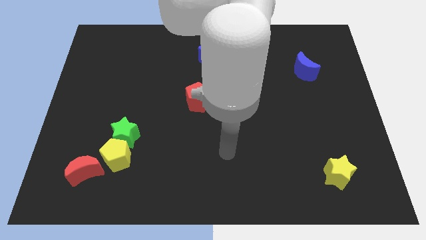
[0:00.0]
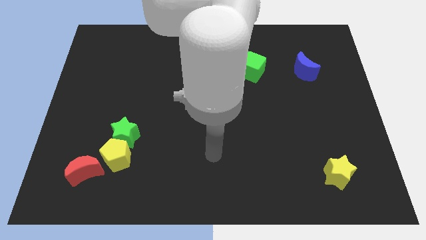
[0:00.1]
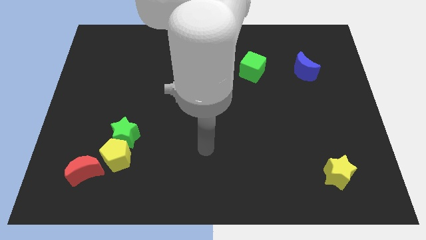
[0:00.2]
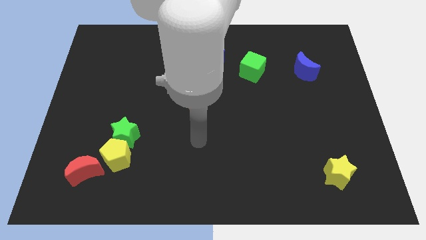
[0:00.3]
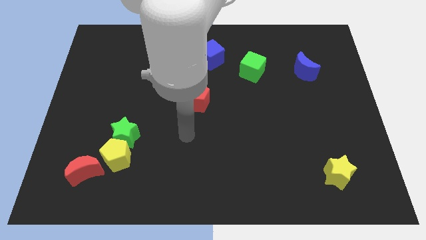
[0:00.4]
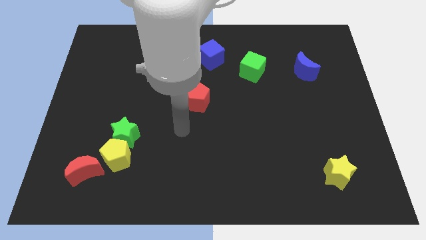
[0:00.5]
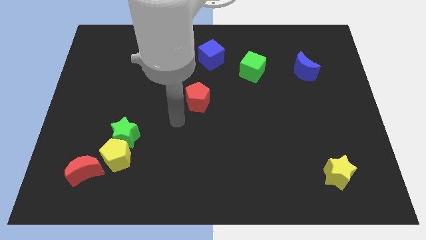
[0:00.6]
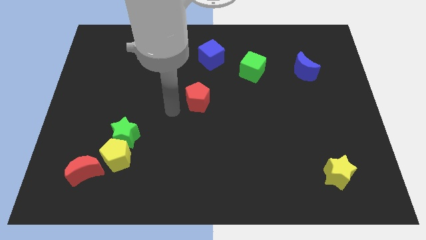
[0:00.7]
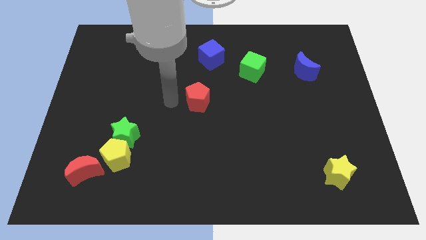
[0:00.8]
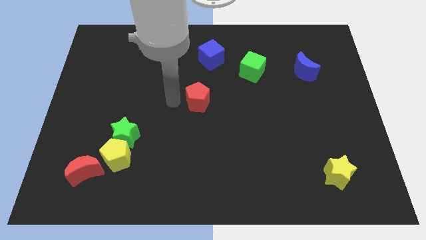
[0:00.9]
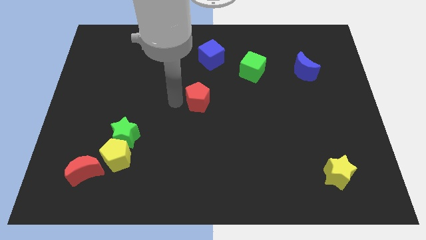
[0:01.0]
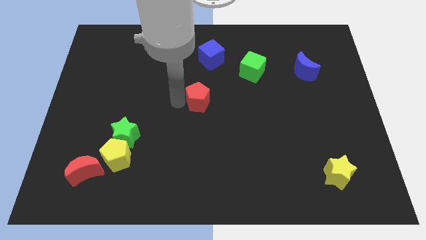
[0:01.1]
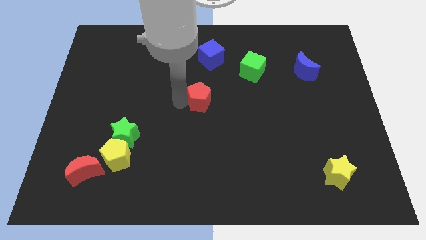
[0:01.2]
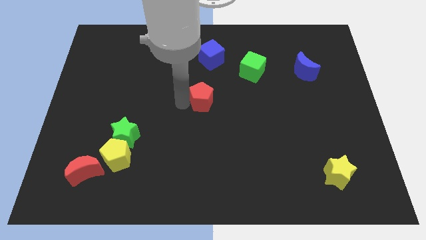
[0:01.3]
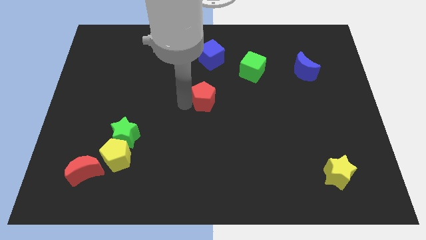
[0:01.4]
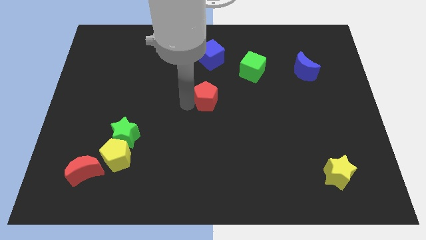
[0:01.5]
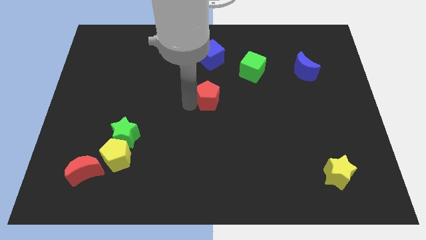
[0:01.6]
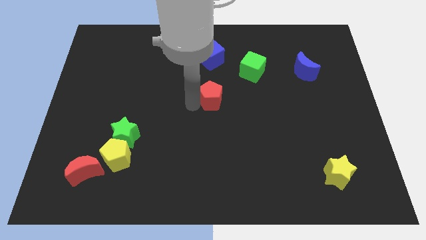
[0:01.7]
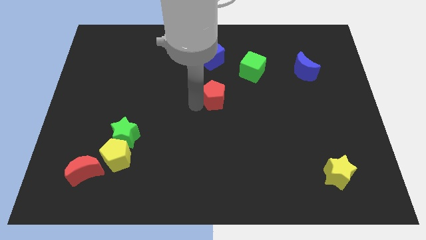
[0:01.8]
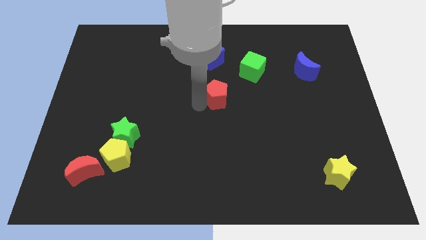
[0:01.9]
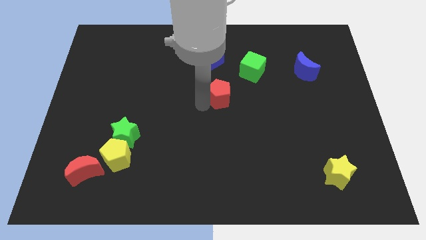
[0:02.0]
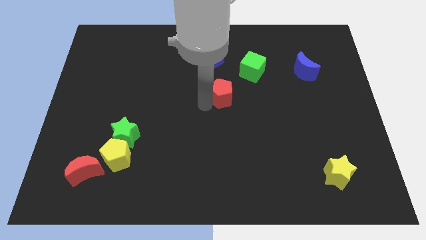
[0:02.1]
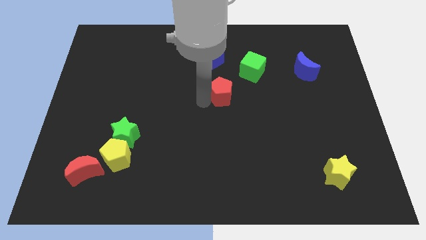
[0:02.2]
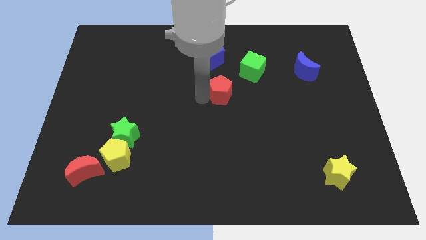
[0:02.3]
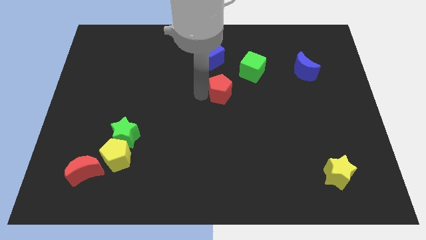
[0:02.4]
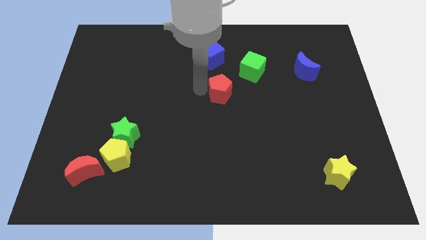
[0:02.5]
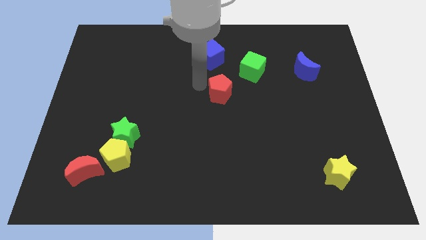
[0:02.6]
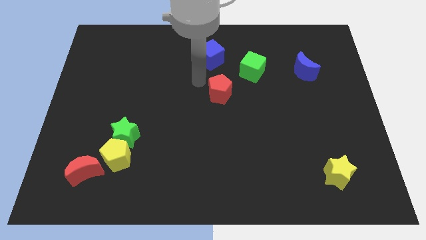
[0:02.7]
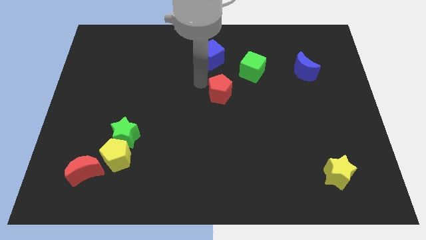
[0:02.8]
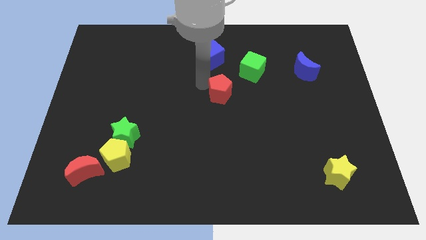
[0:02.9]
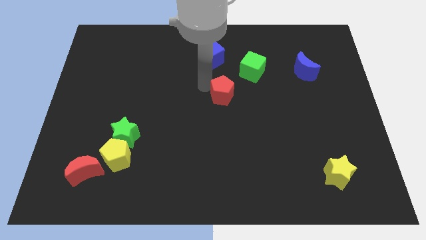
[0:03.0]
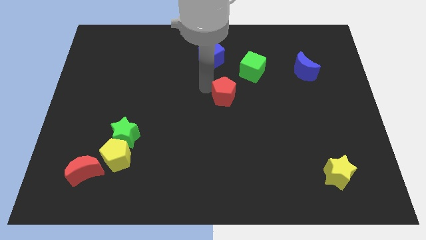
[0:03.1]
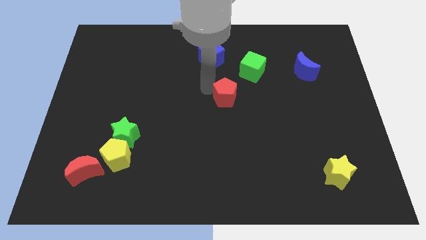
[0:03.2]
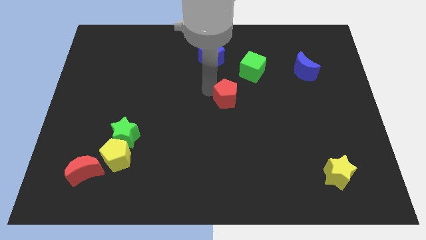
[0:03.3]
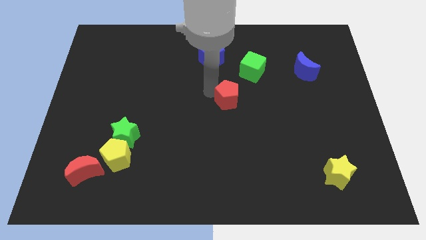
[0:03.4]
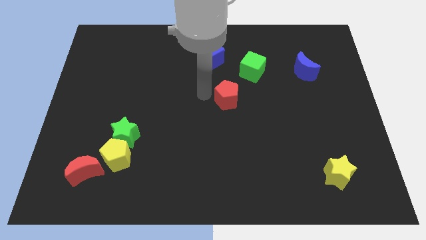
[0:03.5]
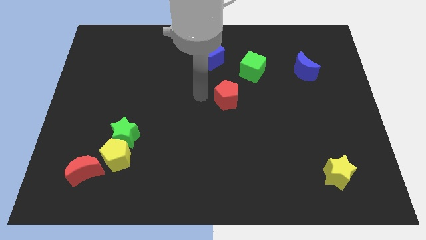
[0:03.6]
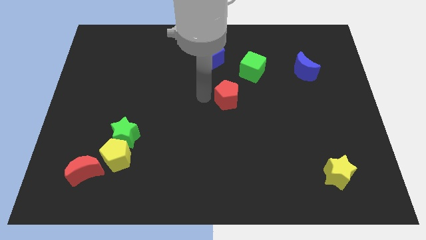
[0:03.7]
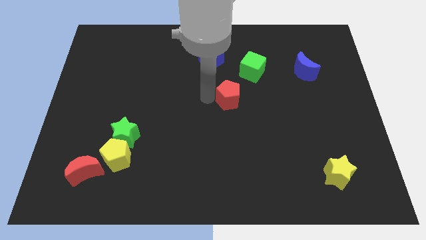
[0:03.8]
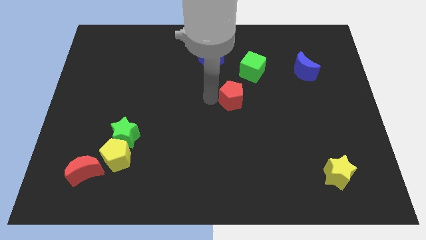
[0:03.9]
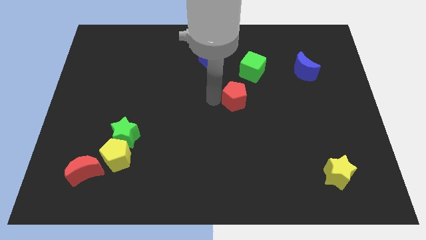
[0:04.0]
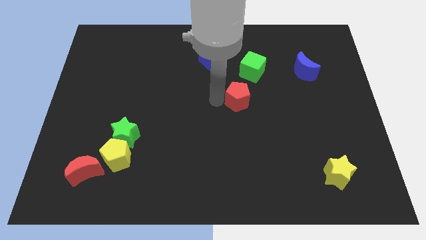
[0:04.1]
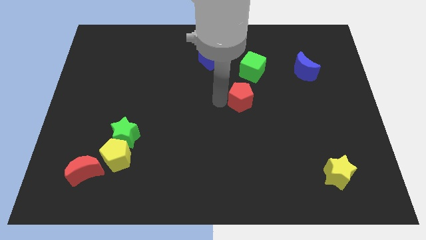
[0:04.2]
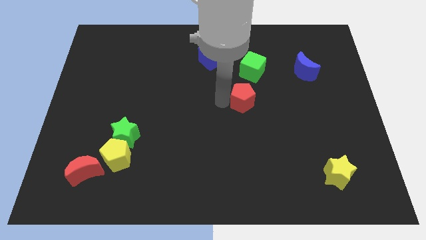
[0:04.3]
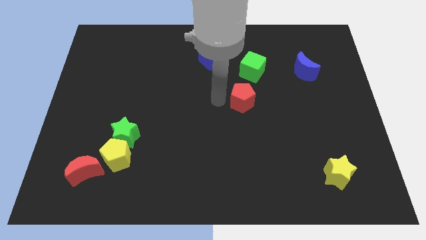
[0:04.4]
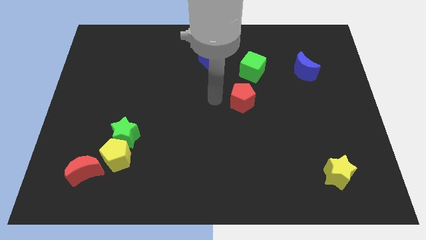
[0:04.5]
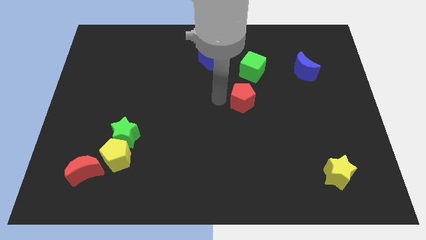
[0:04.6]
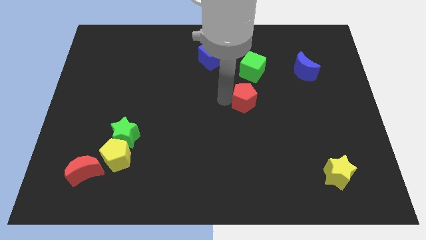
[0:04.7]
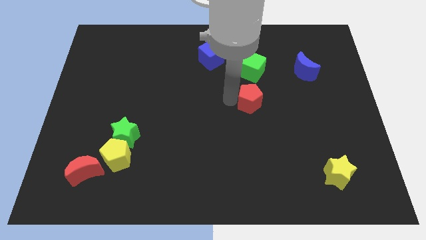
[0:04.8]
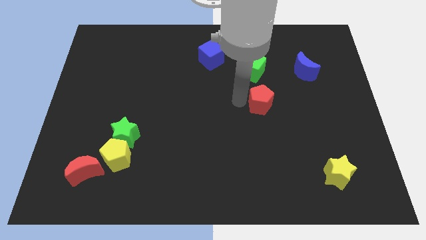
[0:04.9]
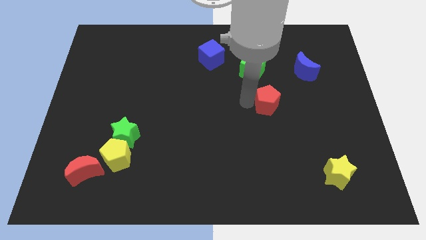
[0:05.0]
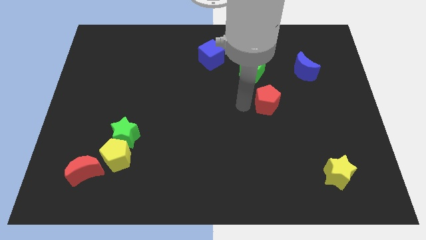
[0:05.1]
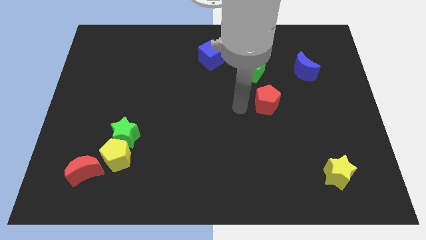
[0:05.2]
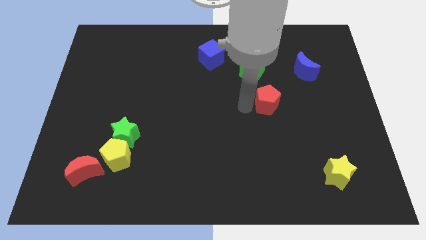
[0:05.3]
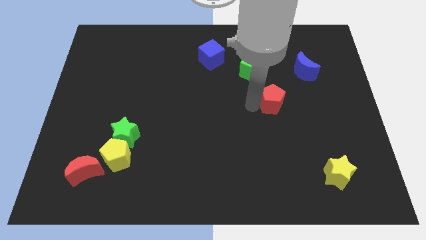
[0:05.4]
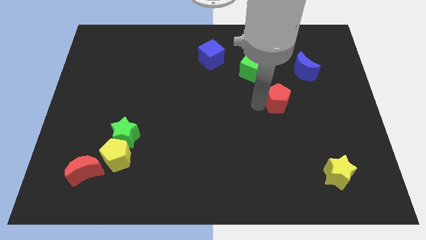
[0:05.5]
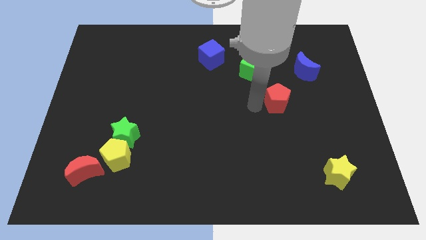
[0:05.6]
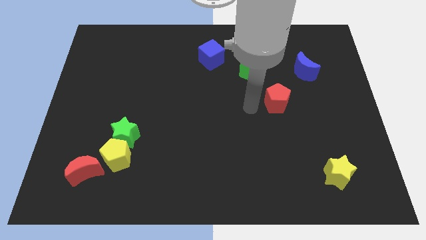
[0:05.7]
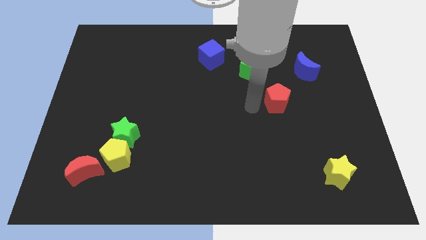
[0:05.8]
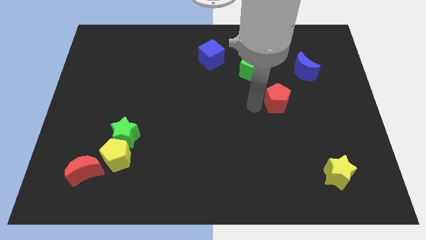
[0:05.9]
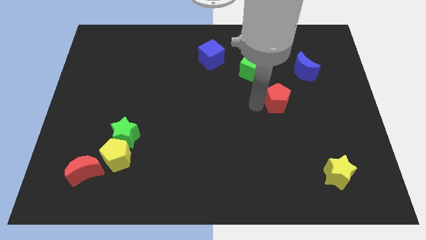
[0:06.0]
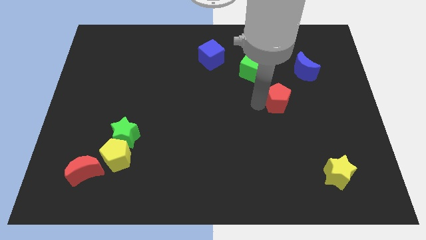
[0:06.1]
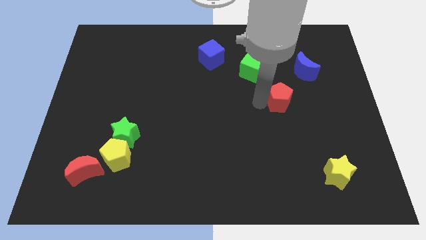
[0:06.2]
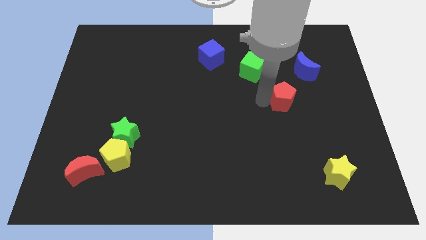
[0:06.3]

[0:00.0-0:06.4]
move the red pentagon to the right

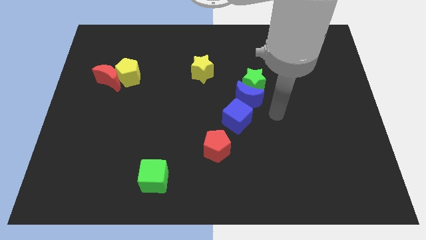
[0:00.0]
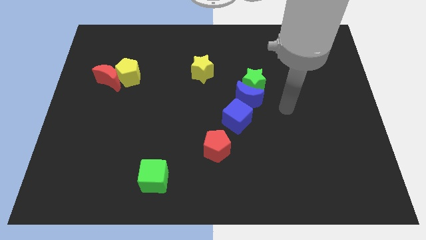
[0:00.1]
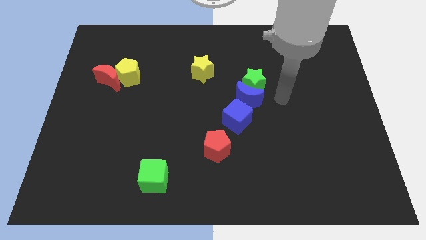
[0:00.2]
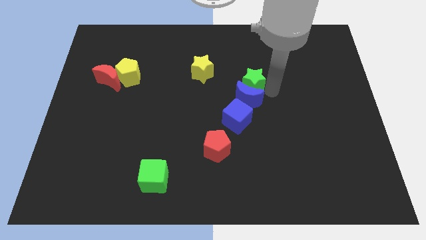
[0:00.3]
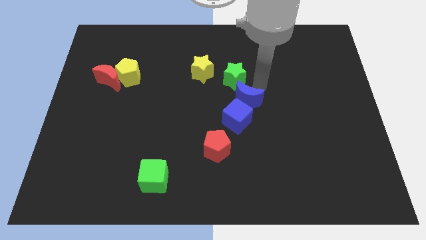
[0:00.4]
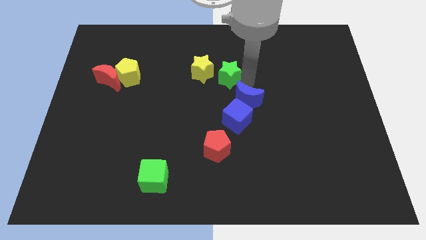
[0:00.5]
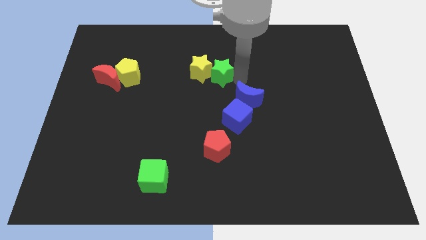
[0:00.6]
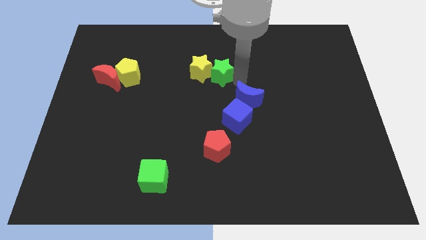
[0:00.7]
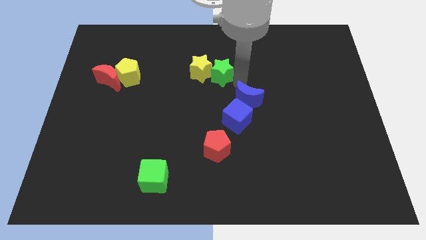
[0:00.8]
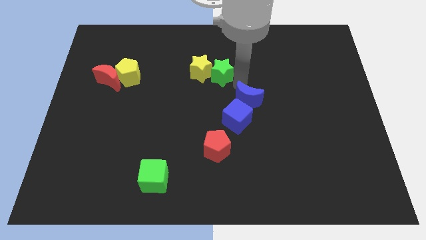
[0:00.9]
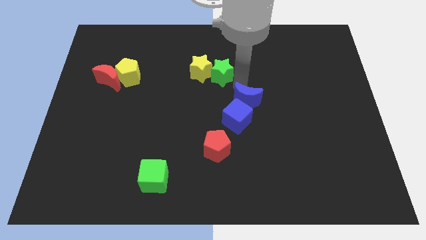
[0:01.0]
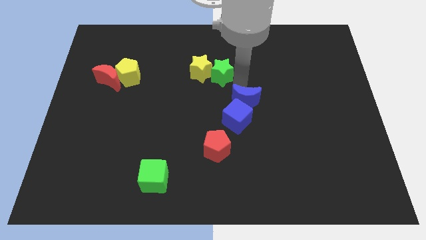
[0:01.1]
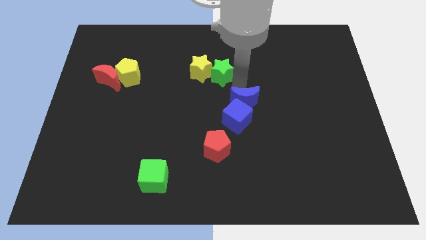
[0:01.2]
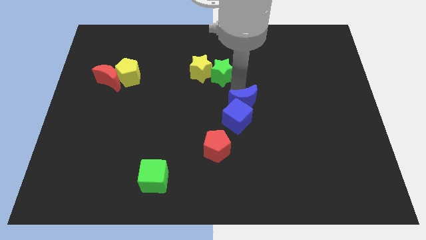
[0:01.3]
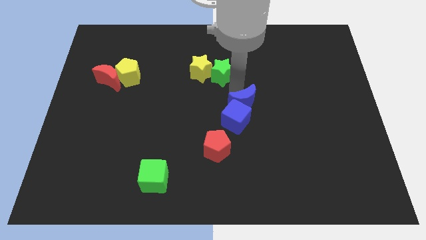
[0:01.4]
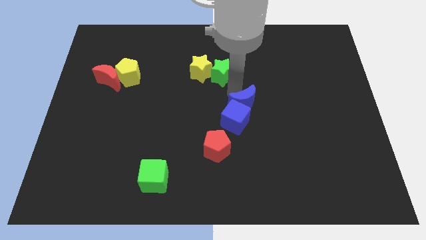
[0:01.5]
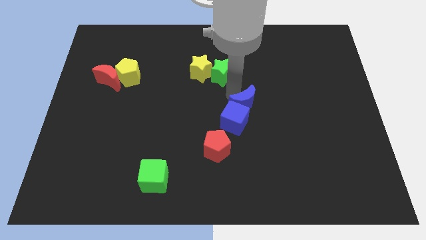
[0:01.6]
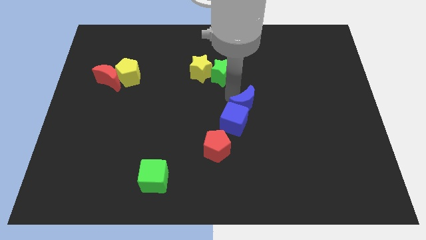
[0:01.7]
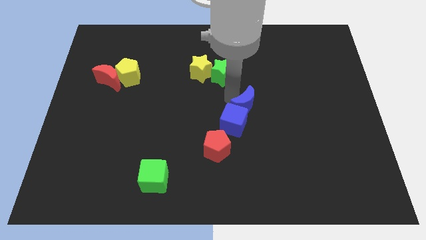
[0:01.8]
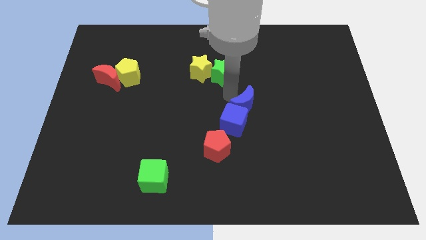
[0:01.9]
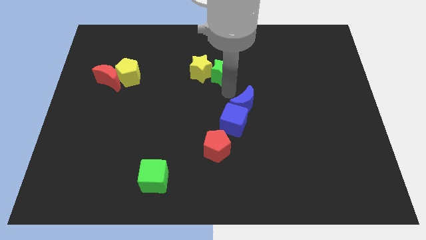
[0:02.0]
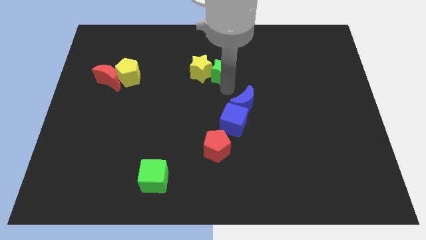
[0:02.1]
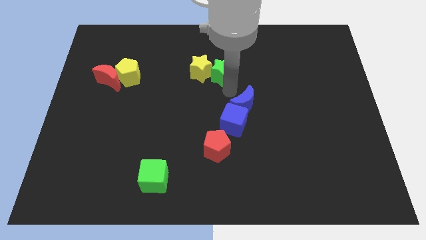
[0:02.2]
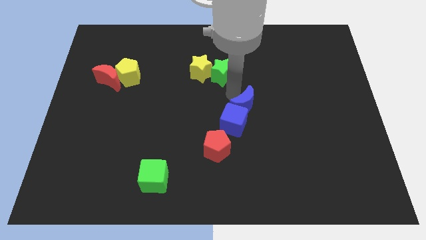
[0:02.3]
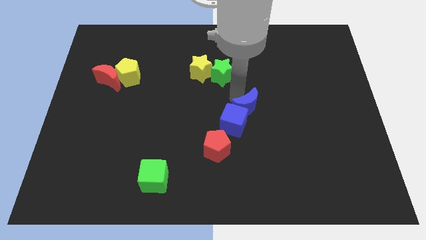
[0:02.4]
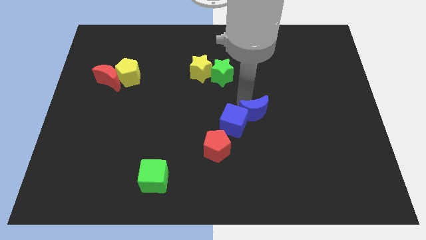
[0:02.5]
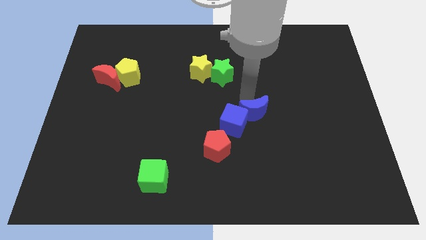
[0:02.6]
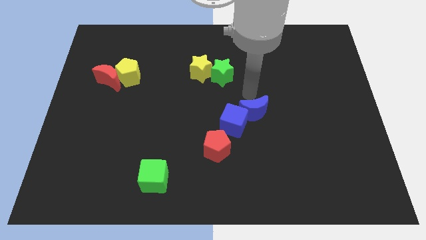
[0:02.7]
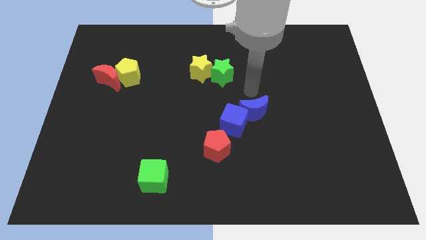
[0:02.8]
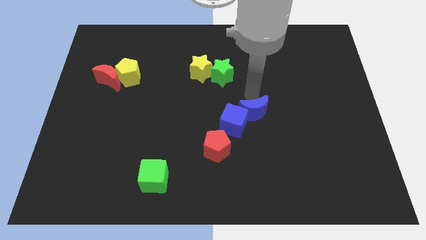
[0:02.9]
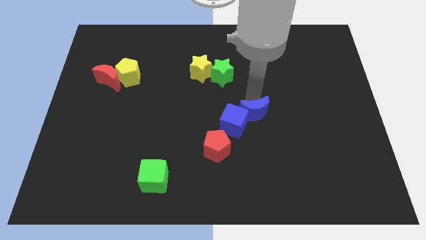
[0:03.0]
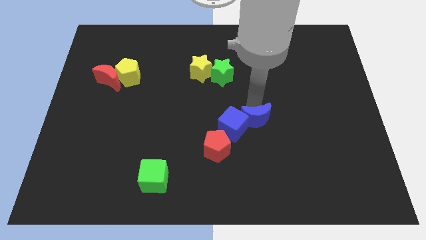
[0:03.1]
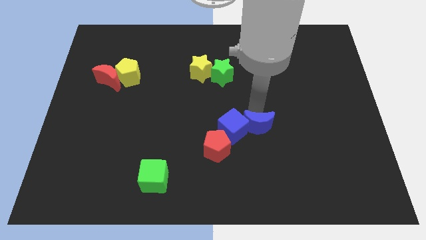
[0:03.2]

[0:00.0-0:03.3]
push the blue moon downwards slightly
